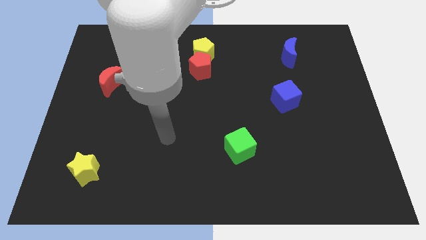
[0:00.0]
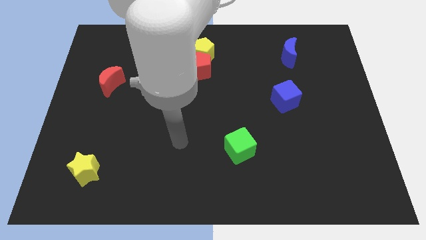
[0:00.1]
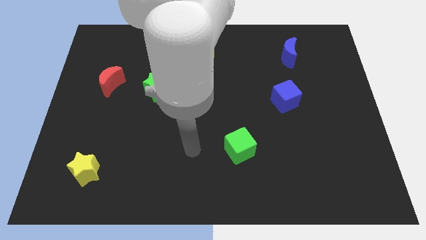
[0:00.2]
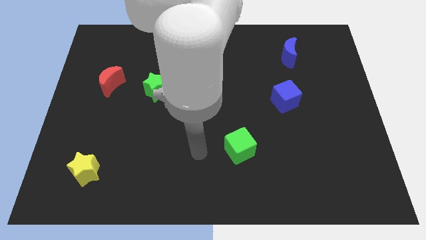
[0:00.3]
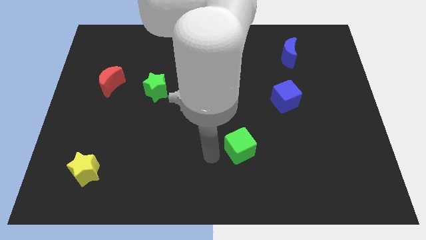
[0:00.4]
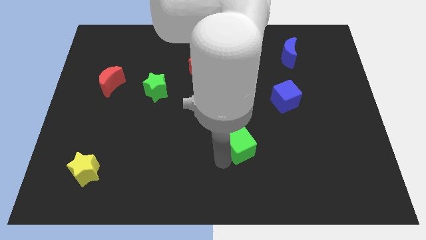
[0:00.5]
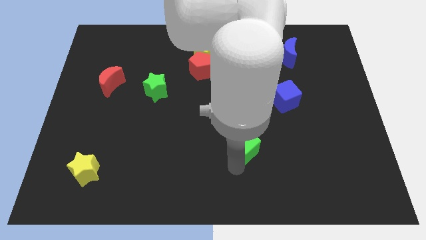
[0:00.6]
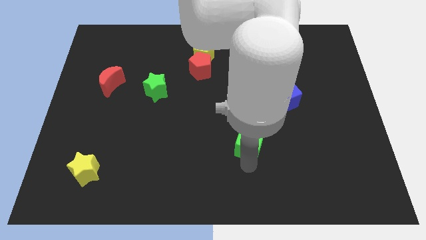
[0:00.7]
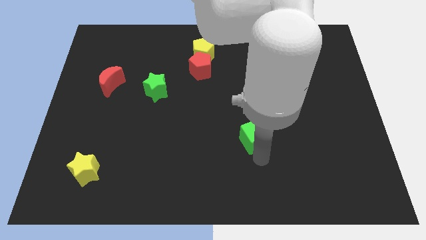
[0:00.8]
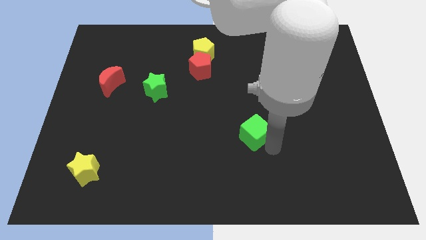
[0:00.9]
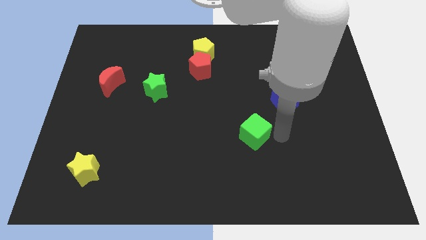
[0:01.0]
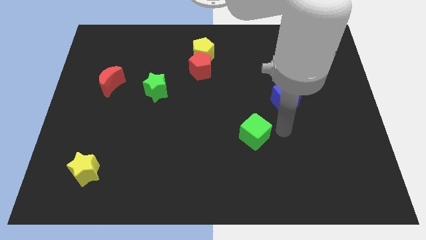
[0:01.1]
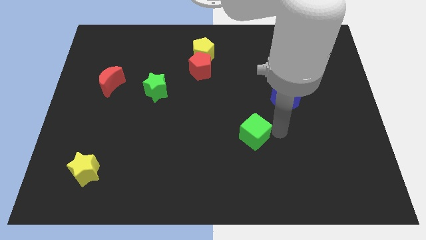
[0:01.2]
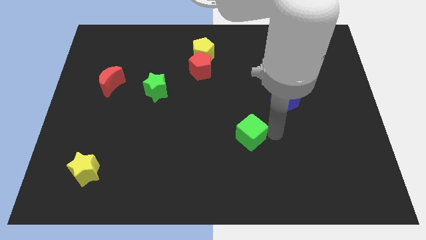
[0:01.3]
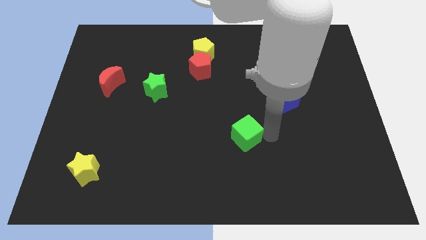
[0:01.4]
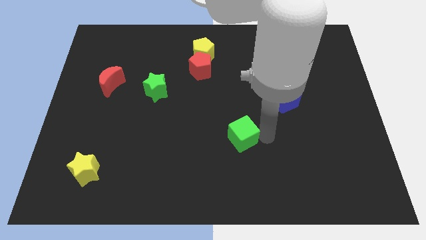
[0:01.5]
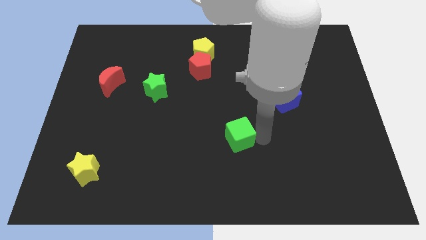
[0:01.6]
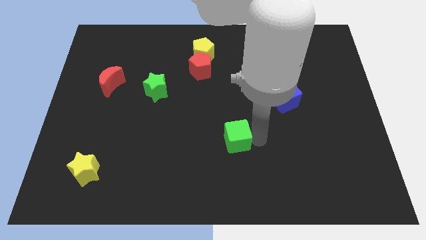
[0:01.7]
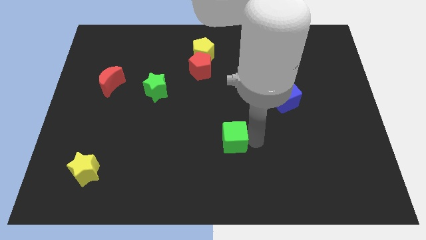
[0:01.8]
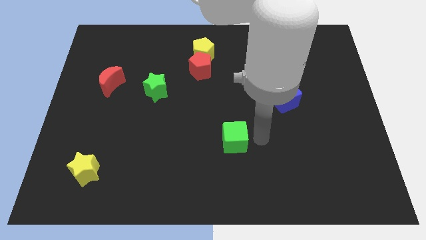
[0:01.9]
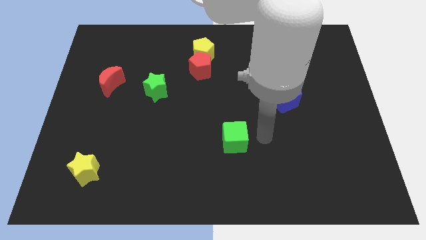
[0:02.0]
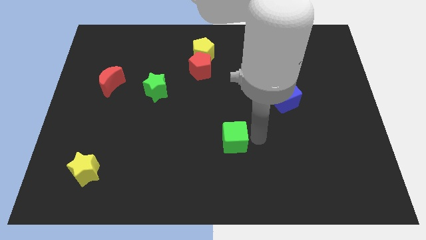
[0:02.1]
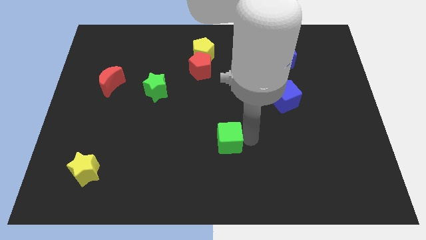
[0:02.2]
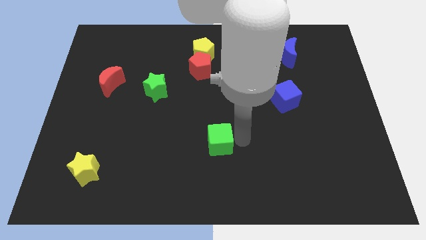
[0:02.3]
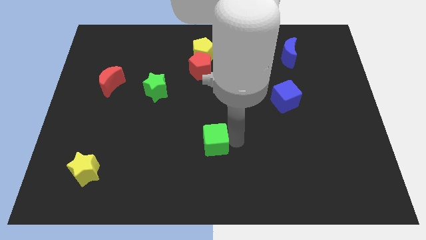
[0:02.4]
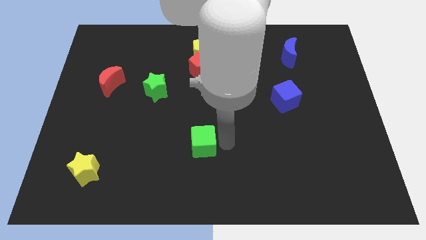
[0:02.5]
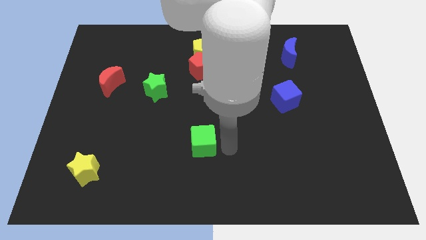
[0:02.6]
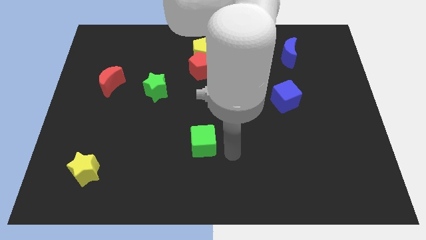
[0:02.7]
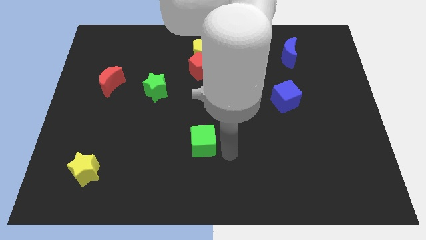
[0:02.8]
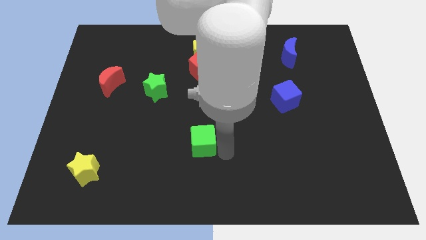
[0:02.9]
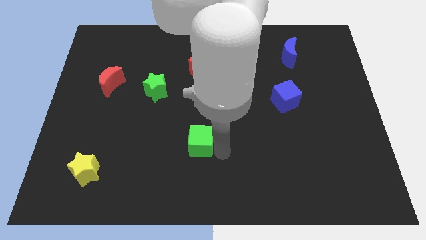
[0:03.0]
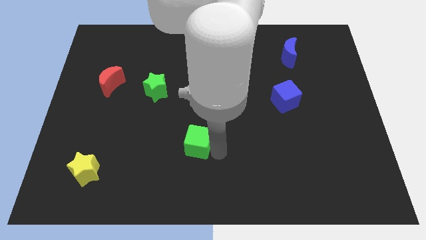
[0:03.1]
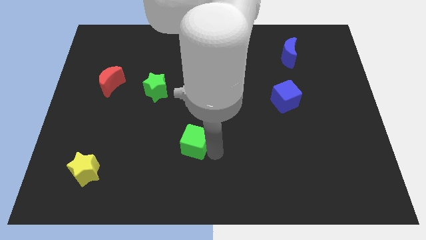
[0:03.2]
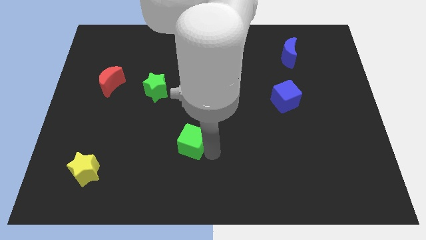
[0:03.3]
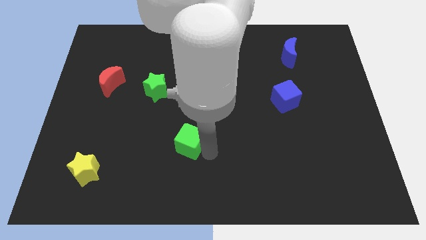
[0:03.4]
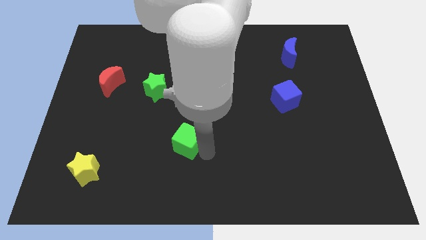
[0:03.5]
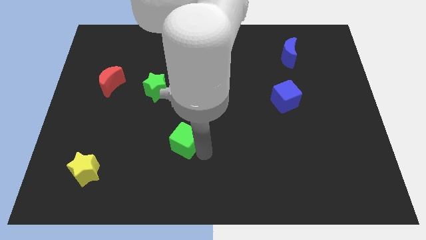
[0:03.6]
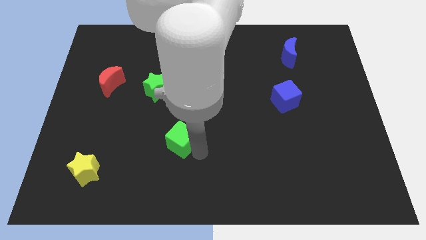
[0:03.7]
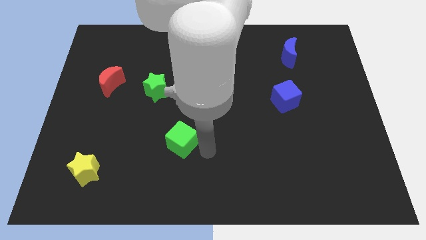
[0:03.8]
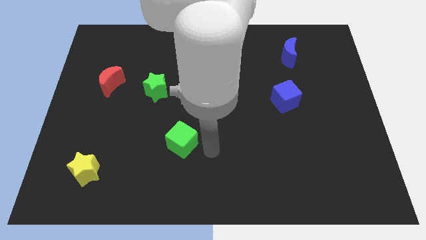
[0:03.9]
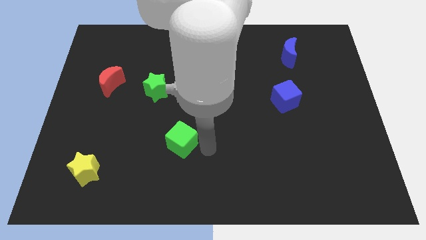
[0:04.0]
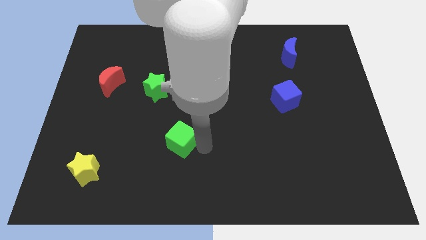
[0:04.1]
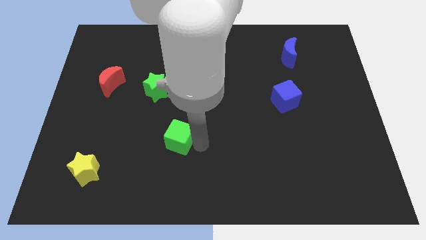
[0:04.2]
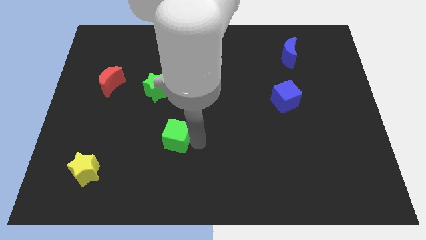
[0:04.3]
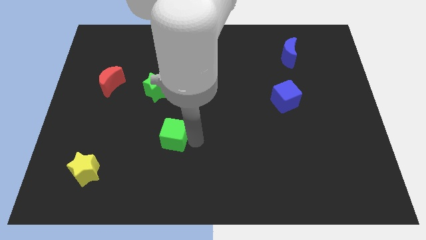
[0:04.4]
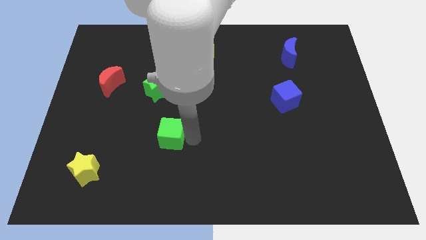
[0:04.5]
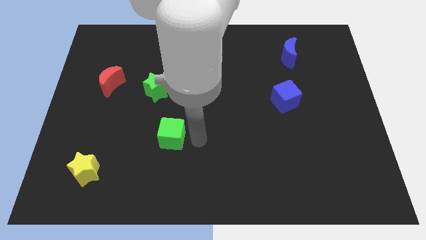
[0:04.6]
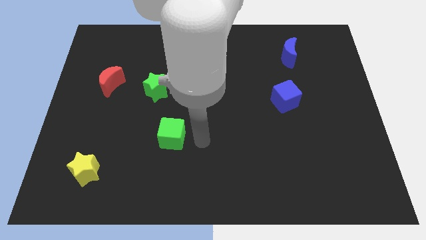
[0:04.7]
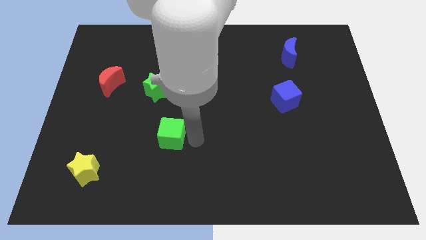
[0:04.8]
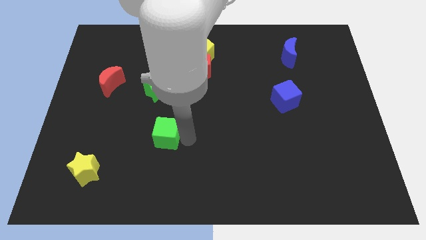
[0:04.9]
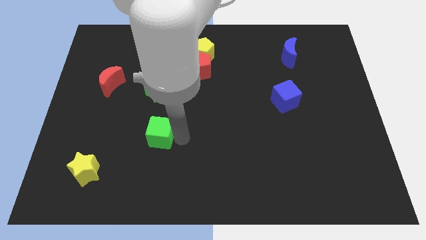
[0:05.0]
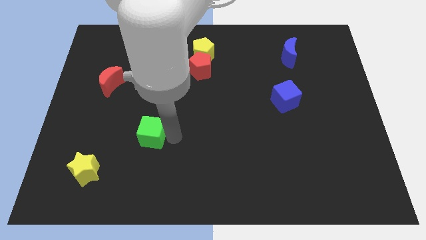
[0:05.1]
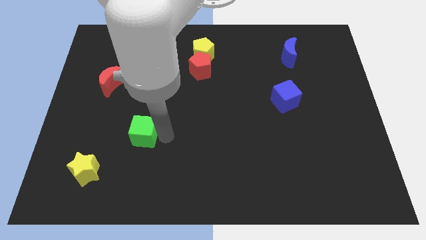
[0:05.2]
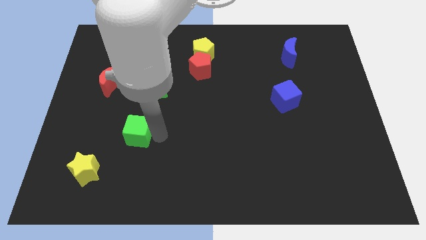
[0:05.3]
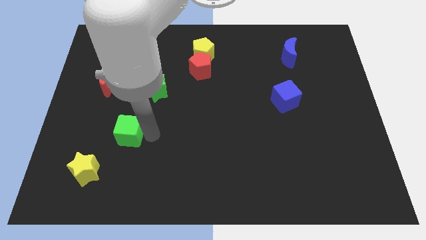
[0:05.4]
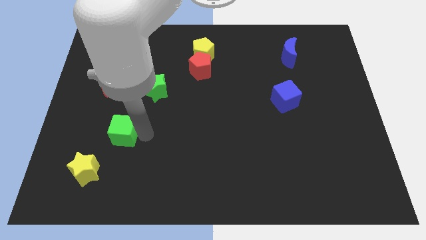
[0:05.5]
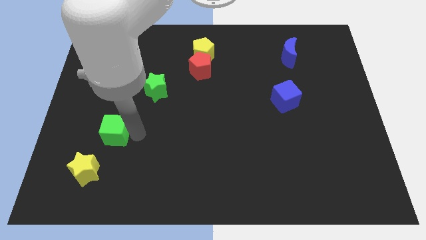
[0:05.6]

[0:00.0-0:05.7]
move the green cube to the top side of the yellow star

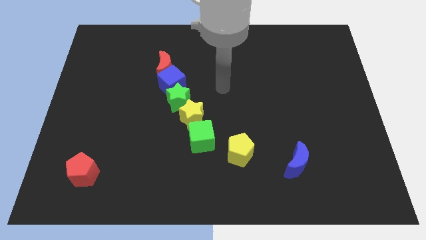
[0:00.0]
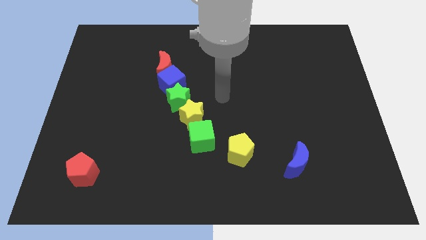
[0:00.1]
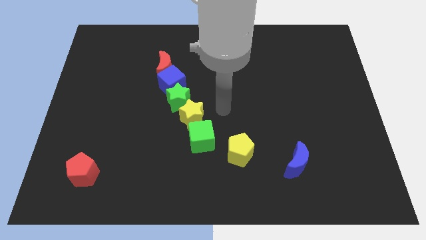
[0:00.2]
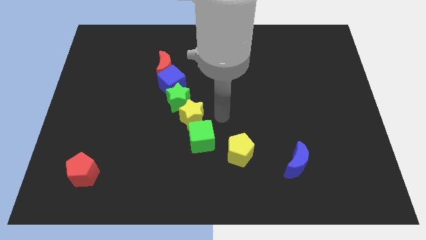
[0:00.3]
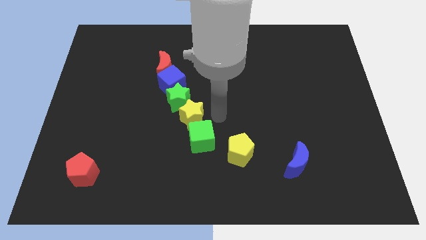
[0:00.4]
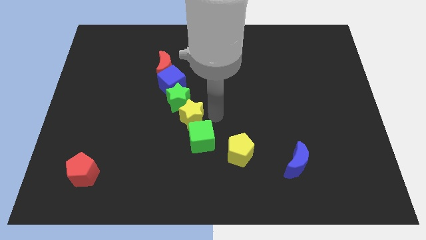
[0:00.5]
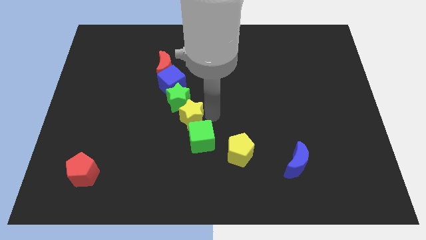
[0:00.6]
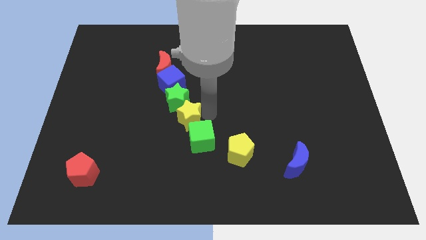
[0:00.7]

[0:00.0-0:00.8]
put the yellow star below the blue cube
